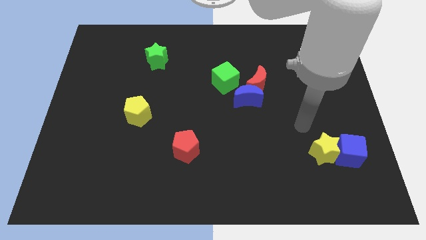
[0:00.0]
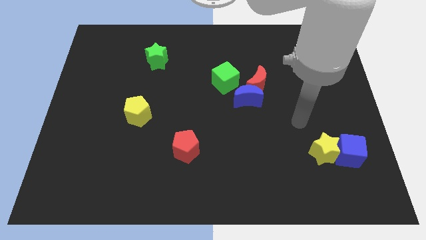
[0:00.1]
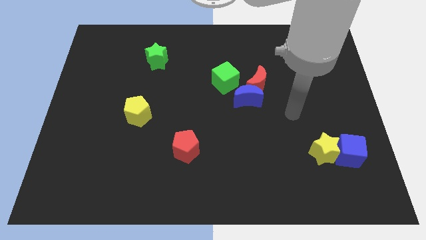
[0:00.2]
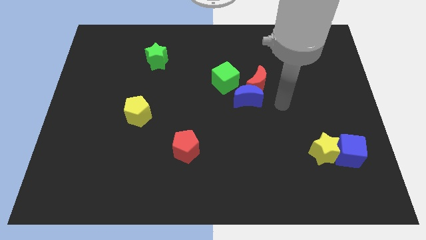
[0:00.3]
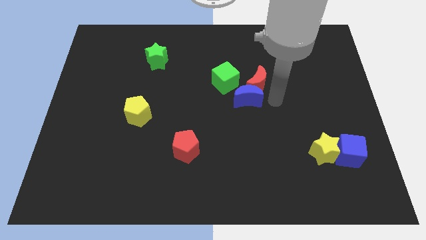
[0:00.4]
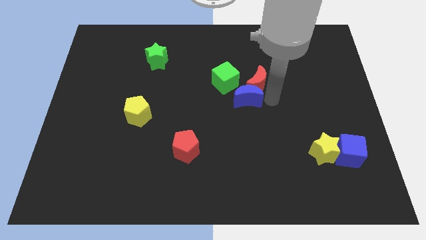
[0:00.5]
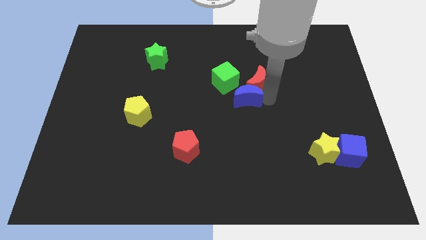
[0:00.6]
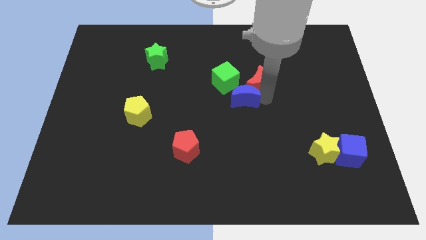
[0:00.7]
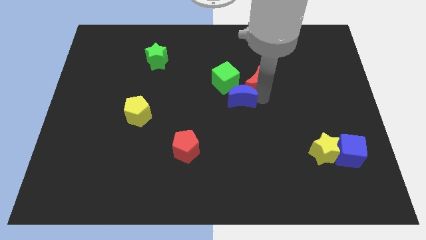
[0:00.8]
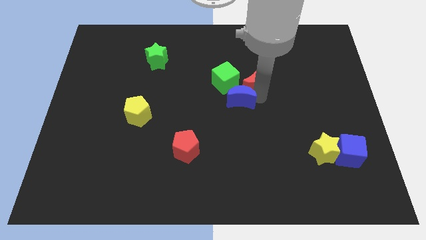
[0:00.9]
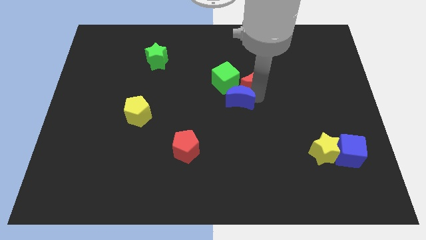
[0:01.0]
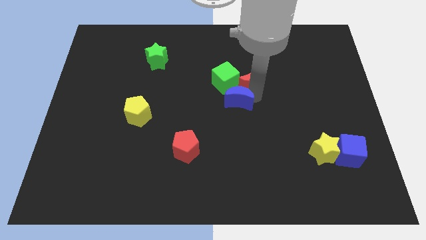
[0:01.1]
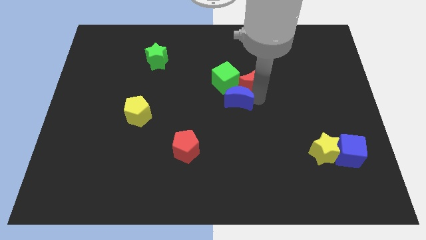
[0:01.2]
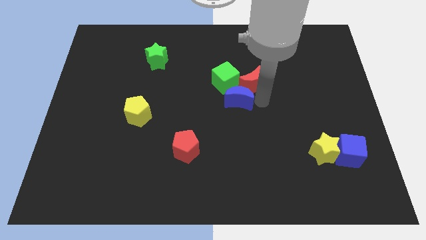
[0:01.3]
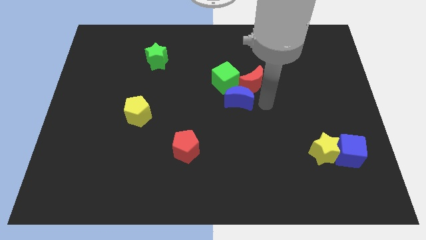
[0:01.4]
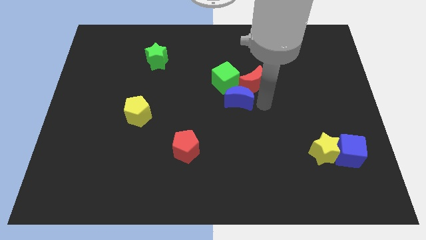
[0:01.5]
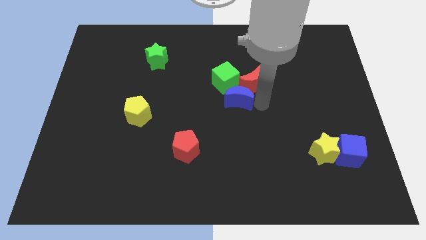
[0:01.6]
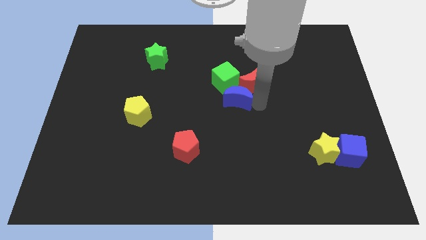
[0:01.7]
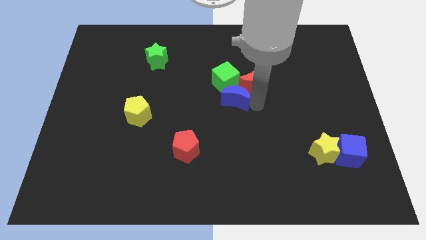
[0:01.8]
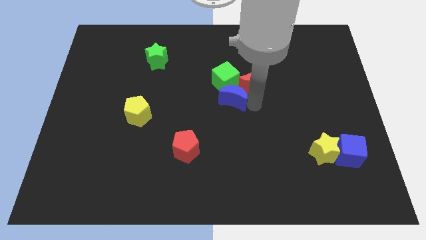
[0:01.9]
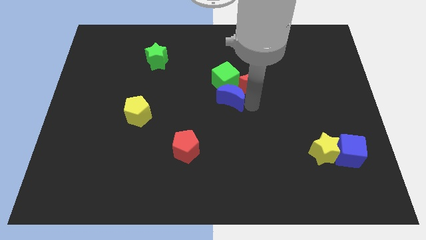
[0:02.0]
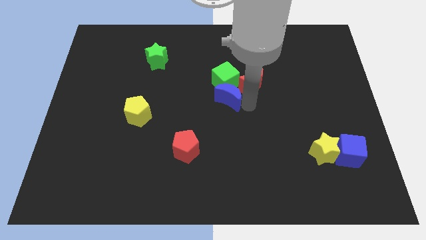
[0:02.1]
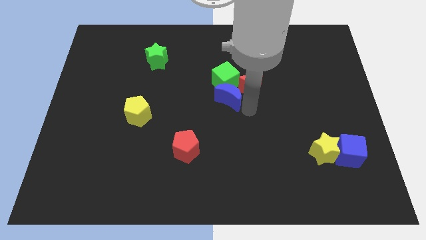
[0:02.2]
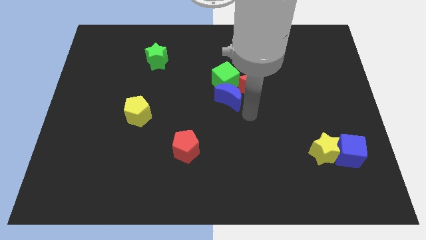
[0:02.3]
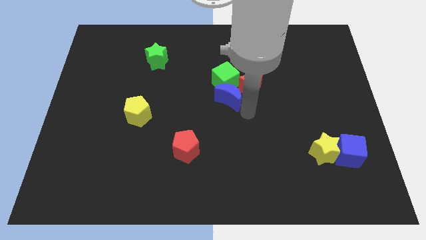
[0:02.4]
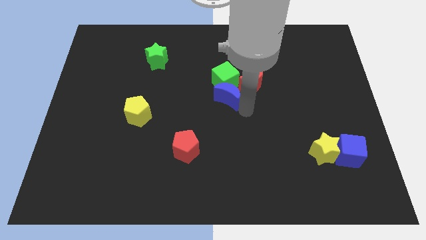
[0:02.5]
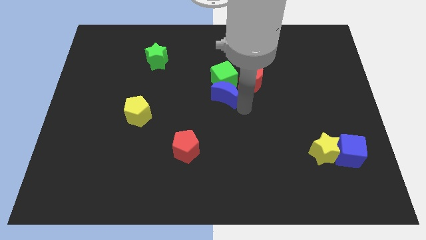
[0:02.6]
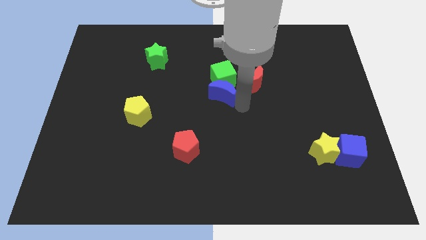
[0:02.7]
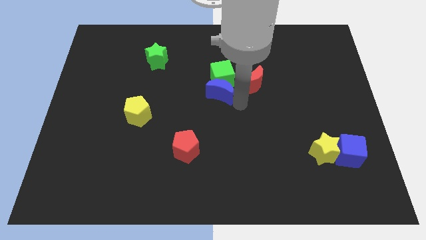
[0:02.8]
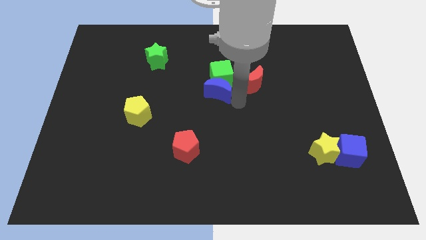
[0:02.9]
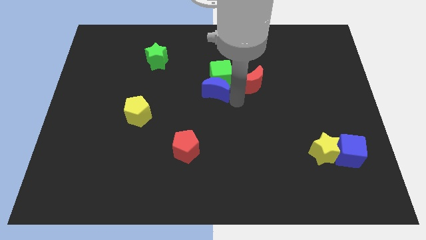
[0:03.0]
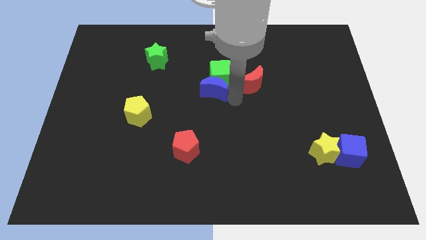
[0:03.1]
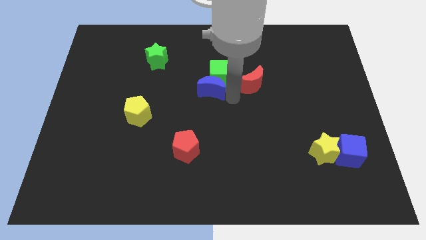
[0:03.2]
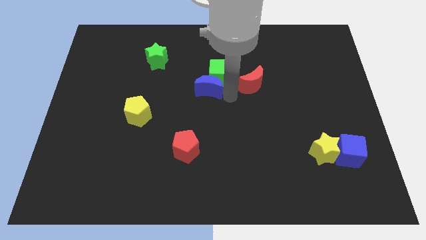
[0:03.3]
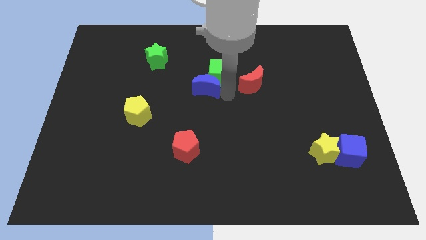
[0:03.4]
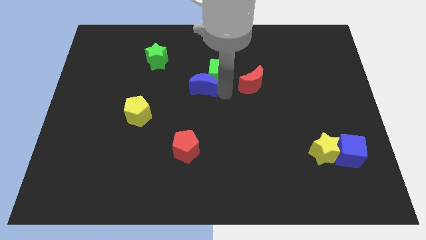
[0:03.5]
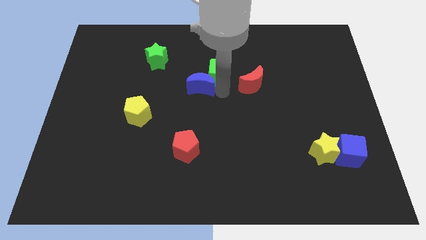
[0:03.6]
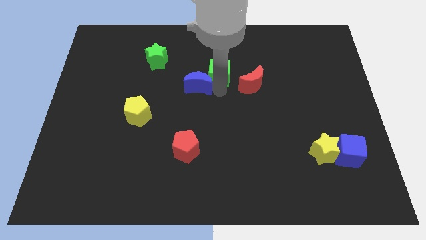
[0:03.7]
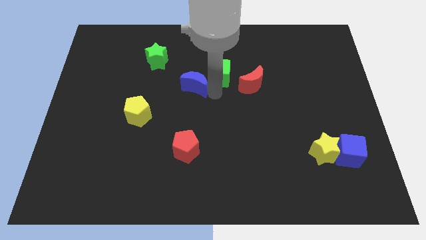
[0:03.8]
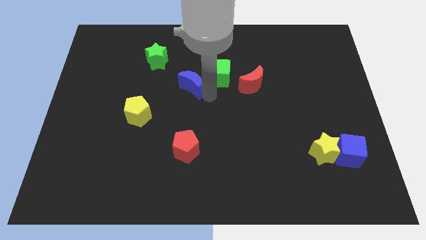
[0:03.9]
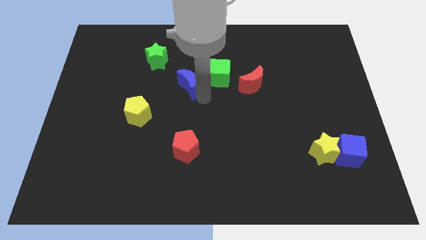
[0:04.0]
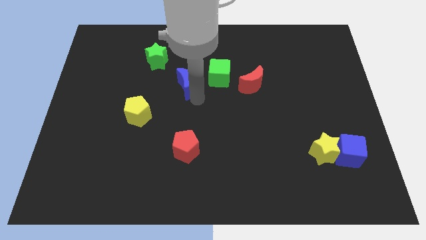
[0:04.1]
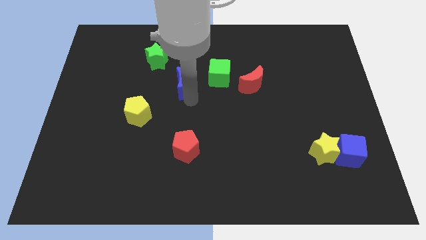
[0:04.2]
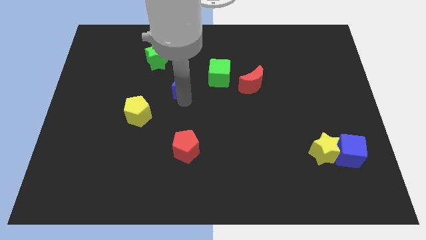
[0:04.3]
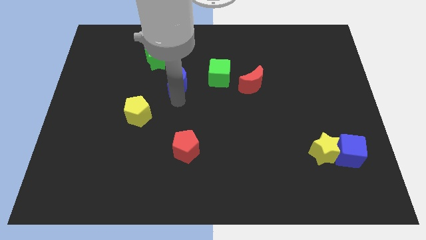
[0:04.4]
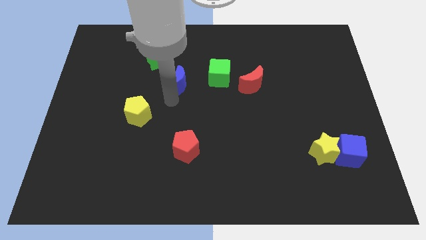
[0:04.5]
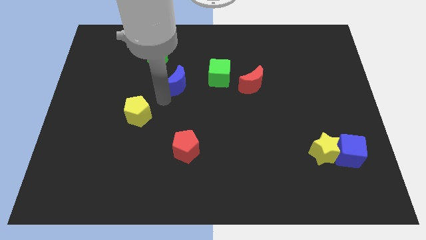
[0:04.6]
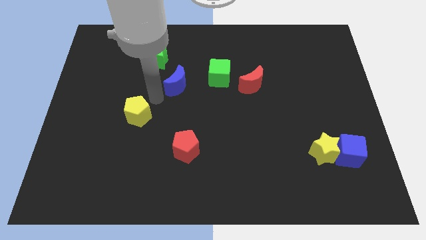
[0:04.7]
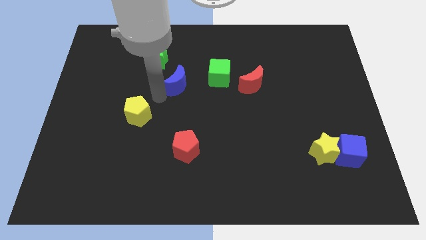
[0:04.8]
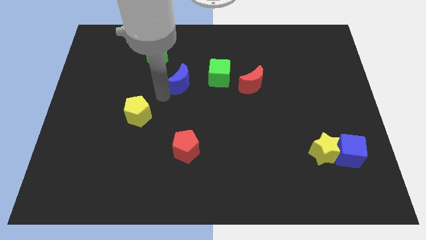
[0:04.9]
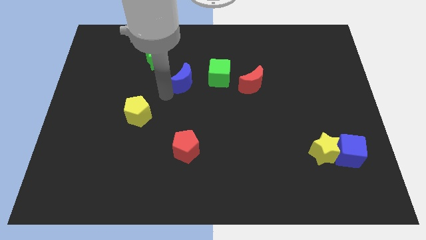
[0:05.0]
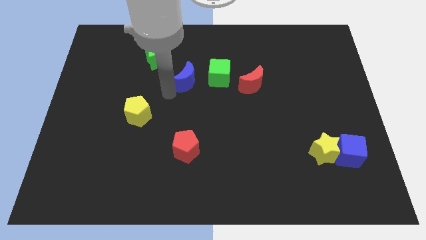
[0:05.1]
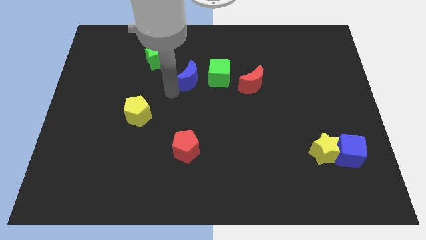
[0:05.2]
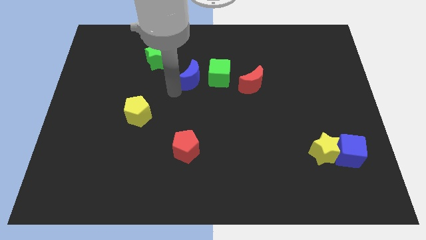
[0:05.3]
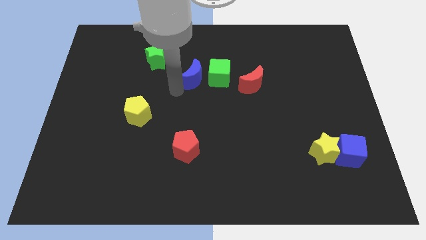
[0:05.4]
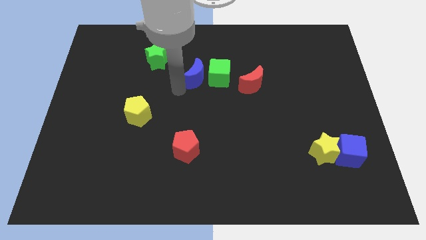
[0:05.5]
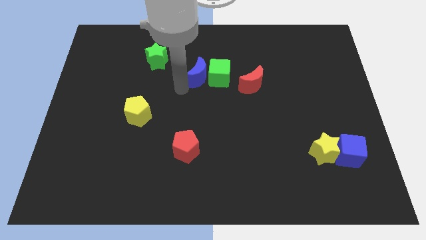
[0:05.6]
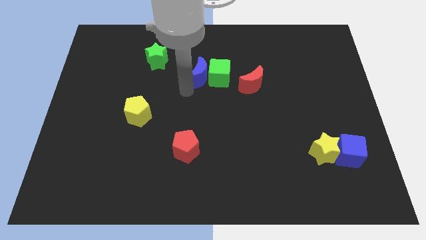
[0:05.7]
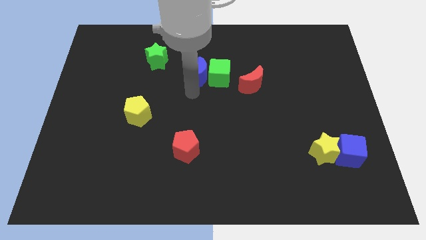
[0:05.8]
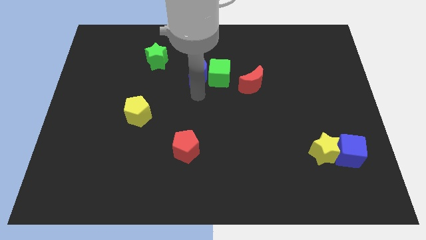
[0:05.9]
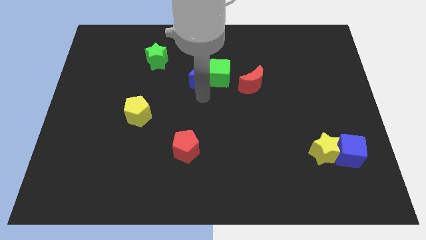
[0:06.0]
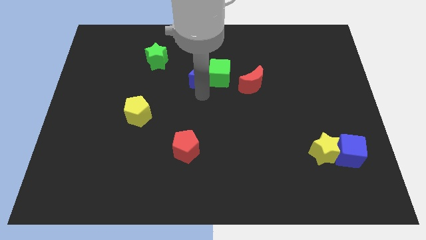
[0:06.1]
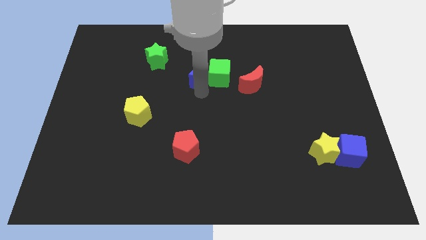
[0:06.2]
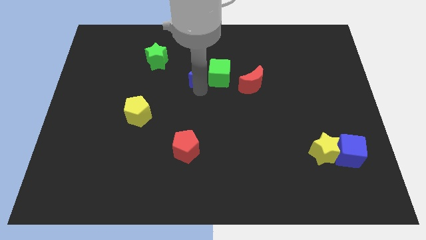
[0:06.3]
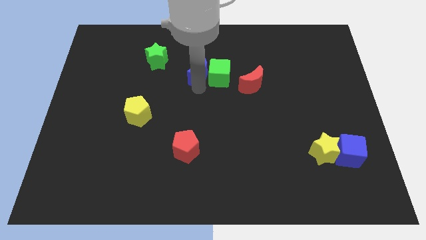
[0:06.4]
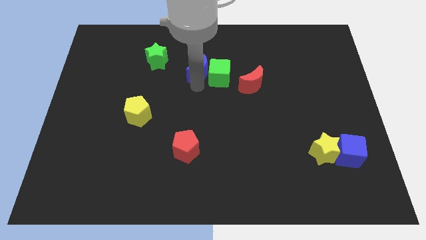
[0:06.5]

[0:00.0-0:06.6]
push the blue moon right of the green star

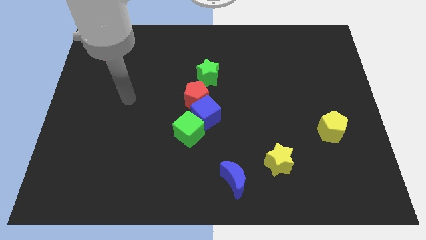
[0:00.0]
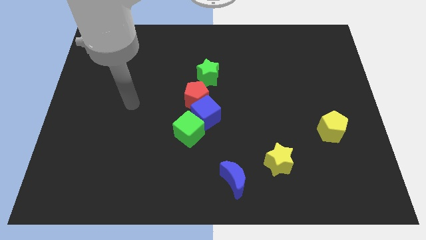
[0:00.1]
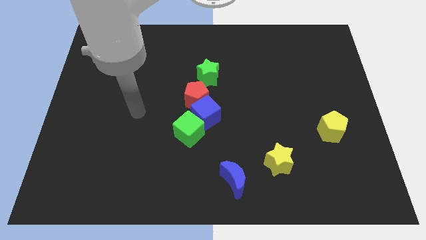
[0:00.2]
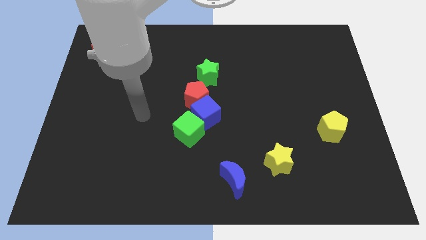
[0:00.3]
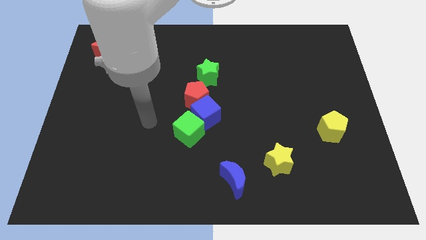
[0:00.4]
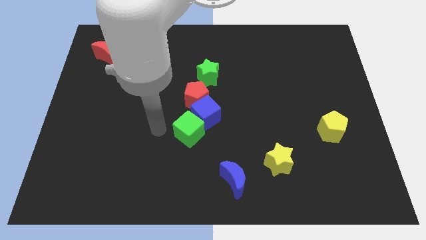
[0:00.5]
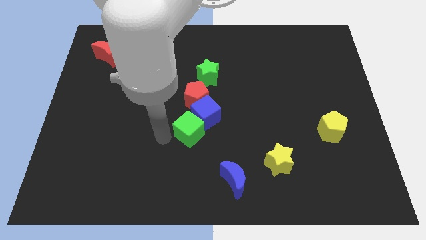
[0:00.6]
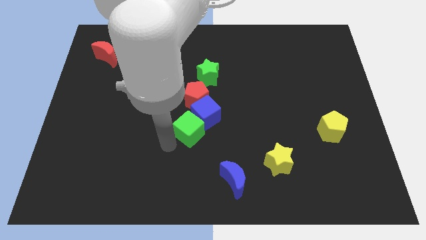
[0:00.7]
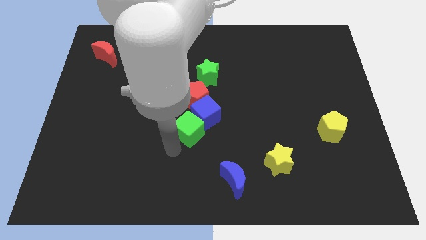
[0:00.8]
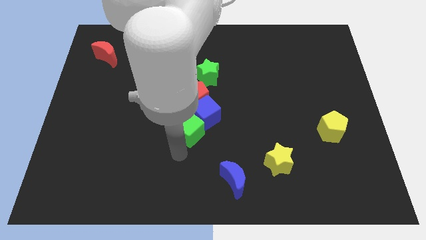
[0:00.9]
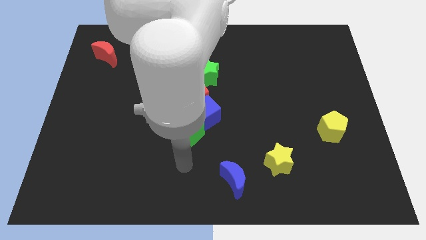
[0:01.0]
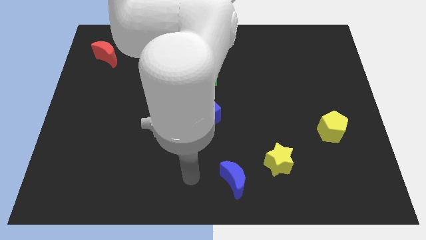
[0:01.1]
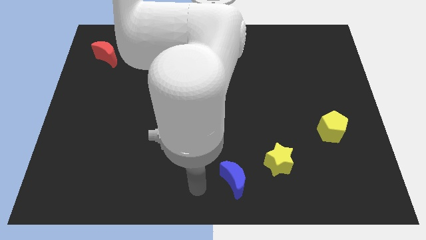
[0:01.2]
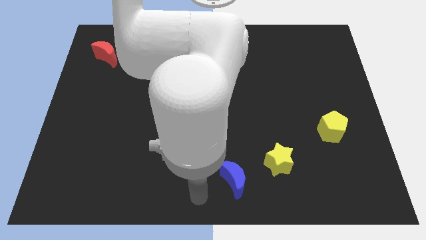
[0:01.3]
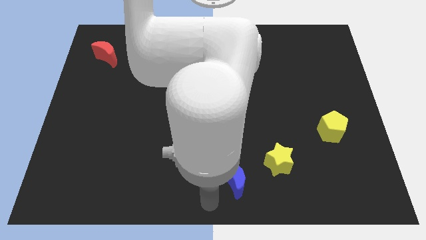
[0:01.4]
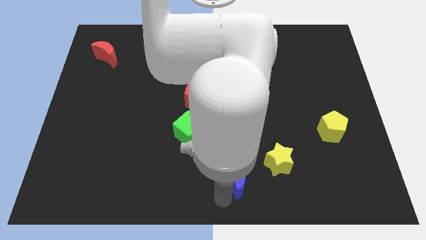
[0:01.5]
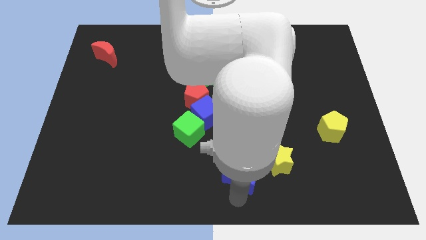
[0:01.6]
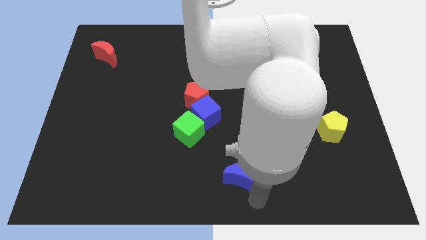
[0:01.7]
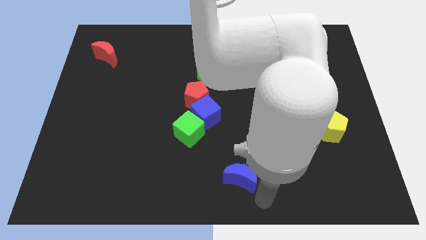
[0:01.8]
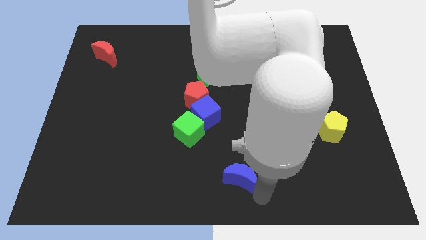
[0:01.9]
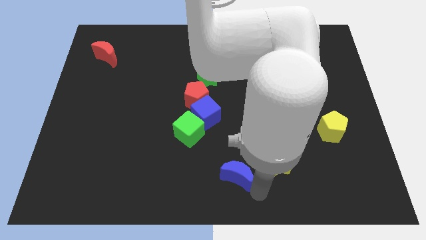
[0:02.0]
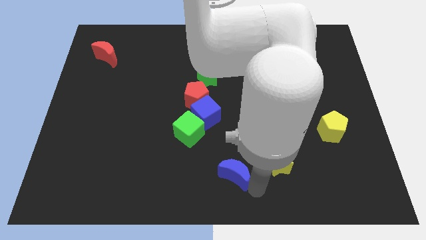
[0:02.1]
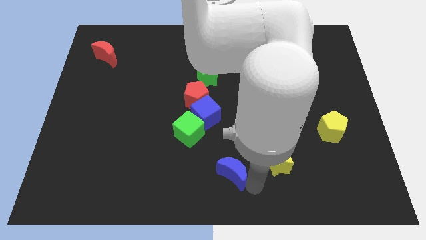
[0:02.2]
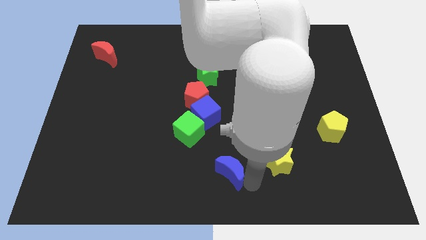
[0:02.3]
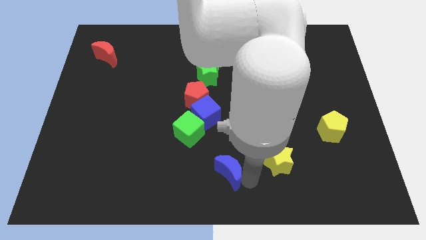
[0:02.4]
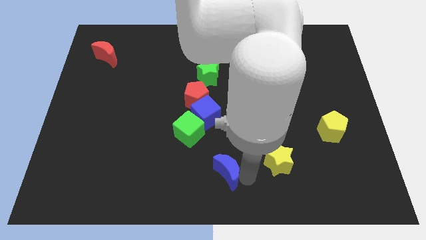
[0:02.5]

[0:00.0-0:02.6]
put the blue moon to the bottom right side of the green cube
